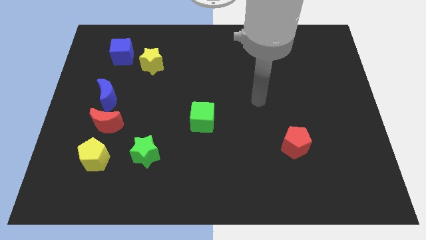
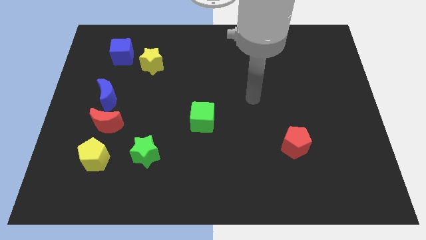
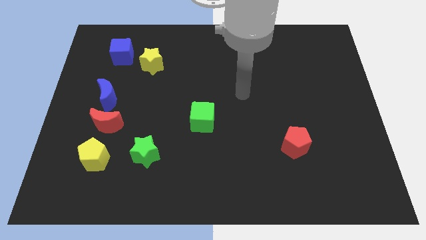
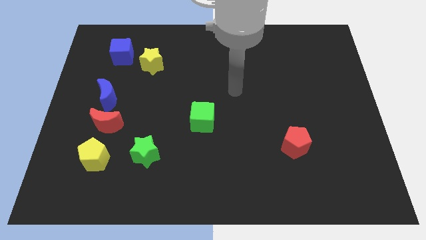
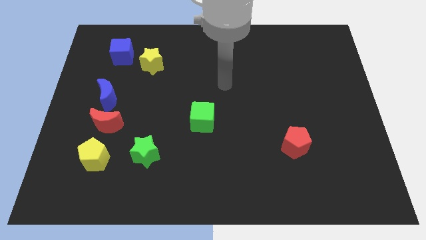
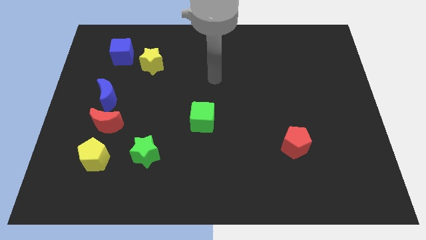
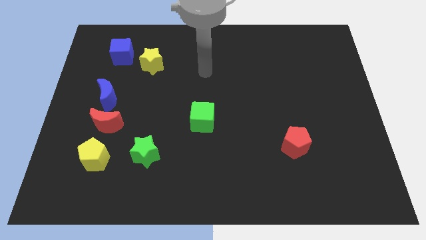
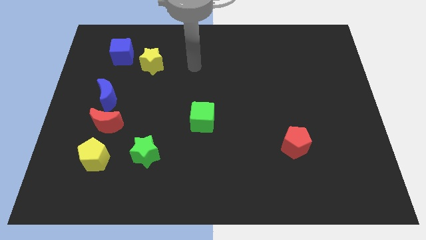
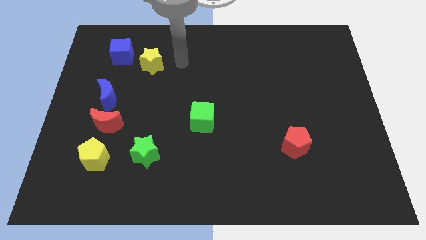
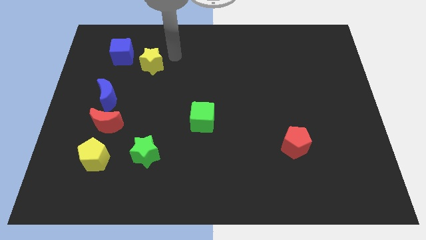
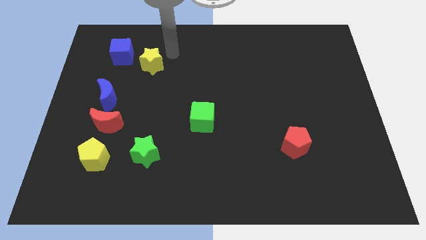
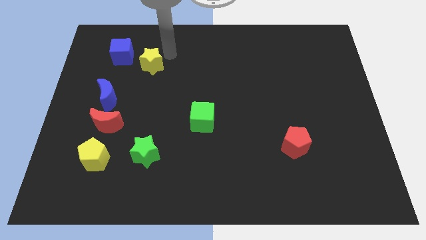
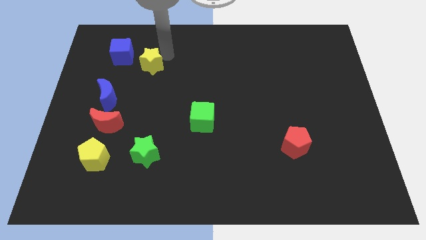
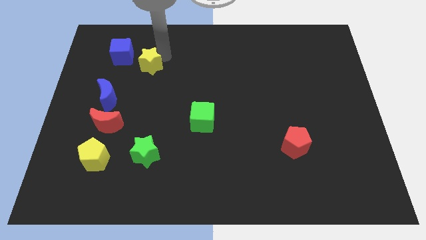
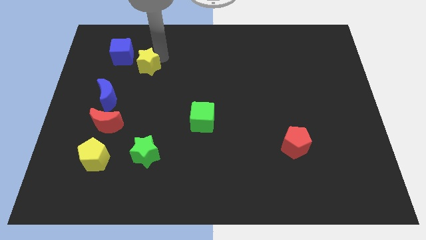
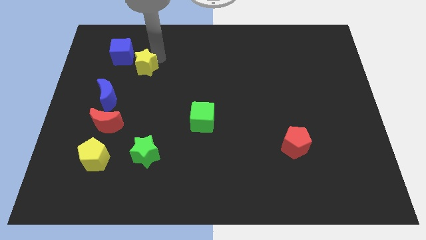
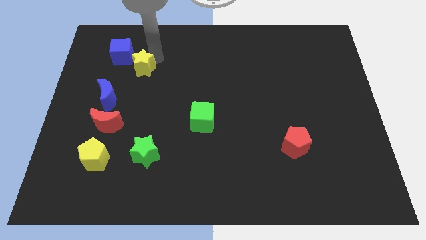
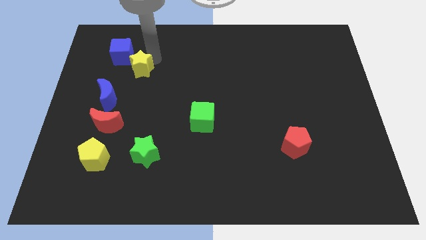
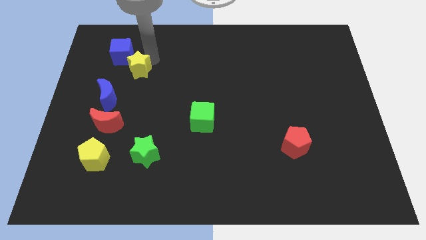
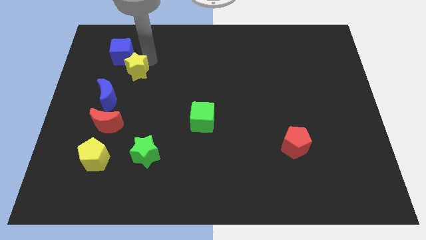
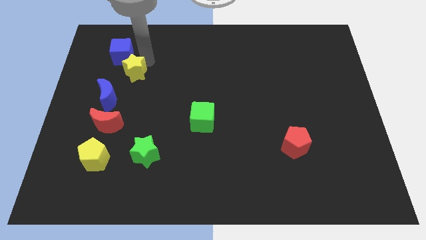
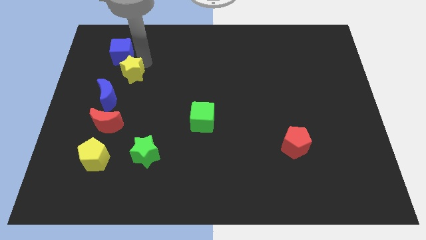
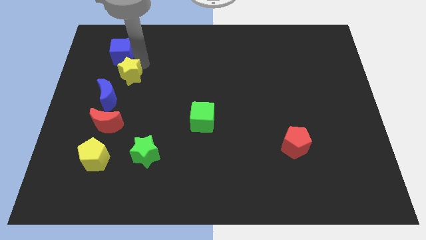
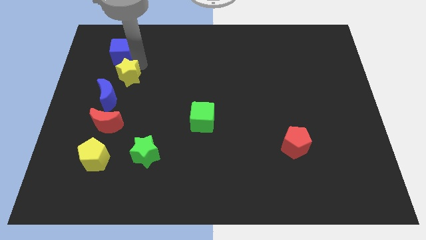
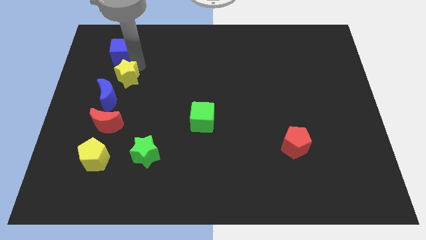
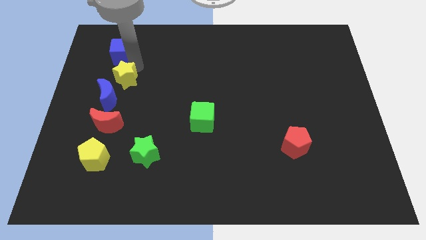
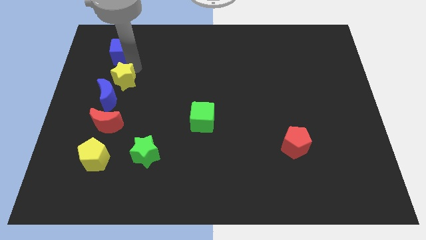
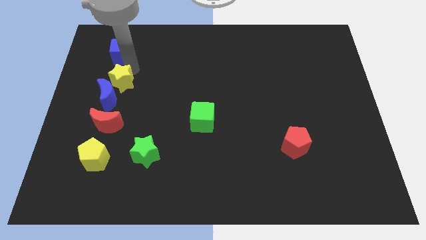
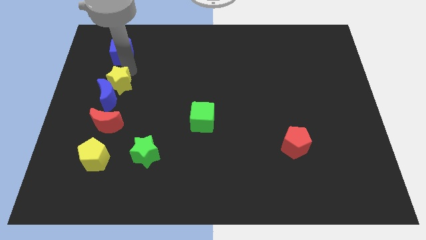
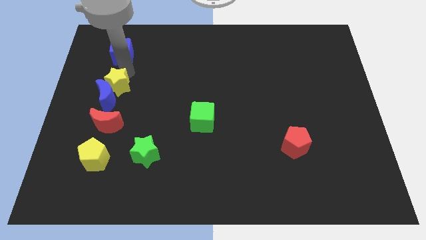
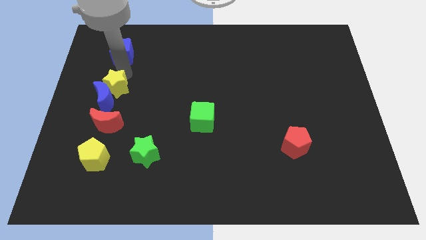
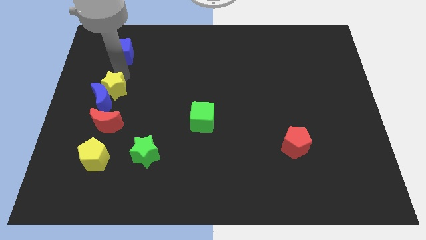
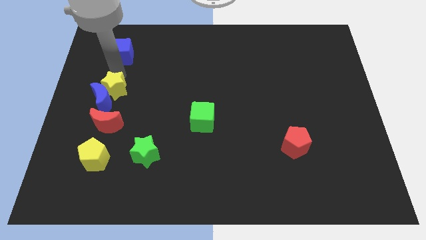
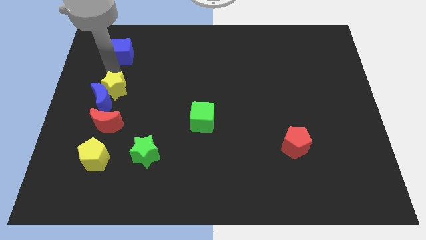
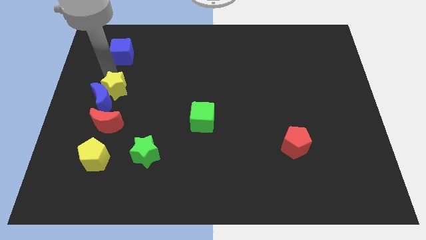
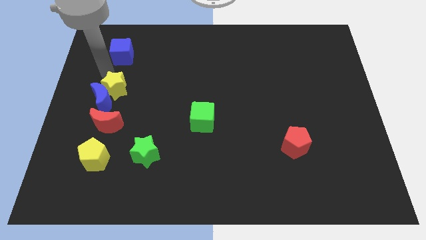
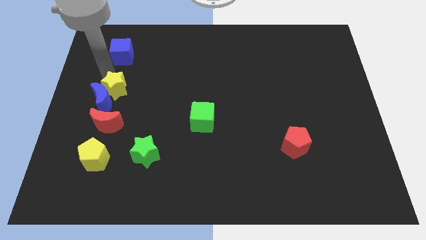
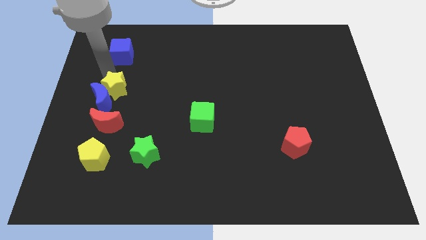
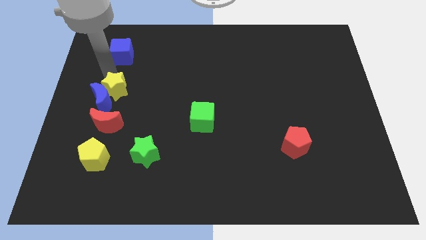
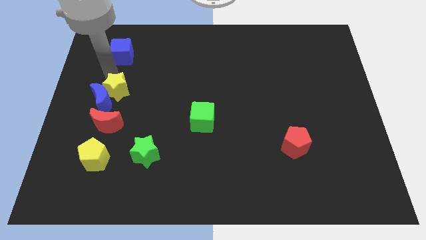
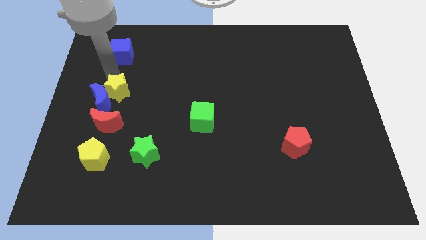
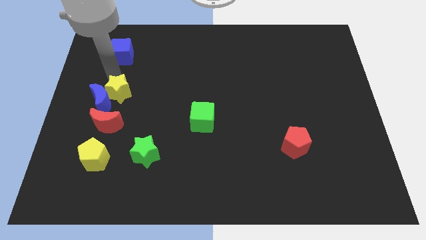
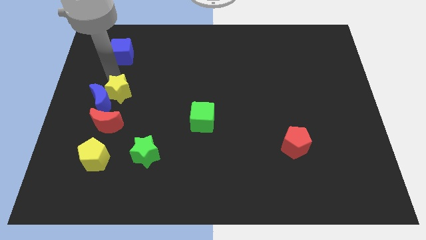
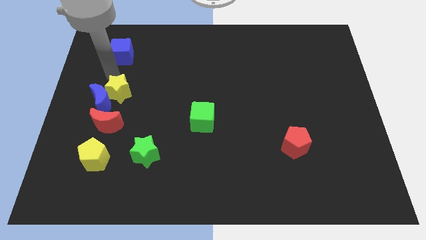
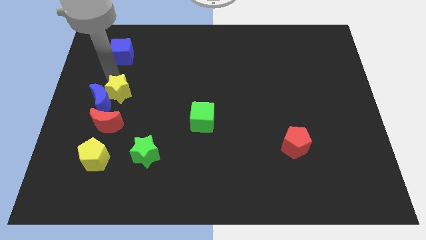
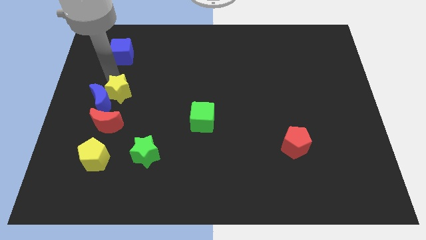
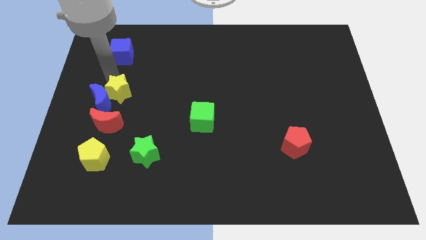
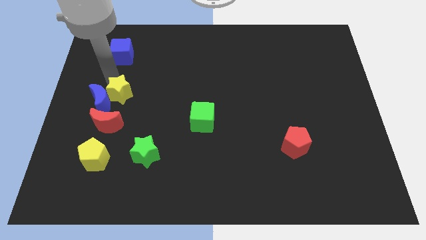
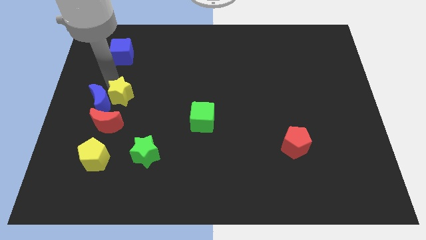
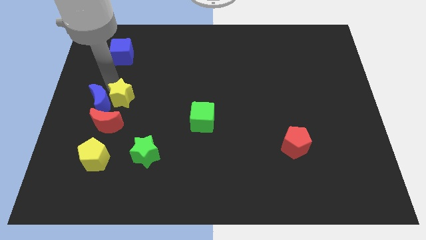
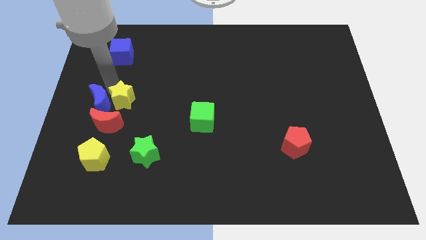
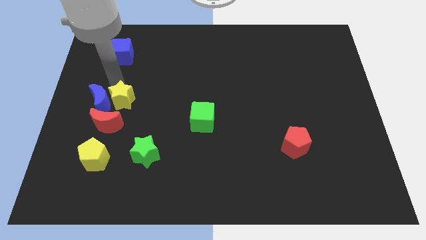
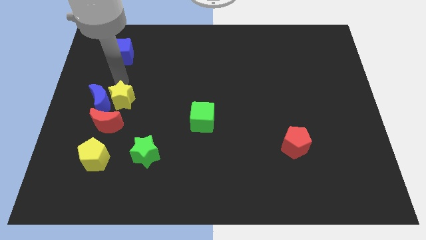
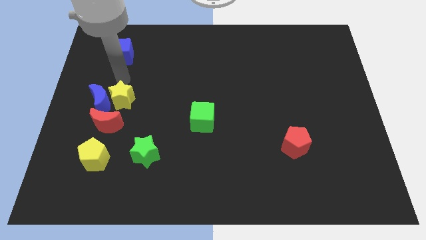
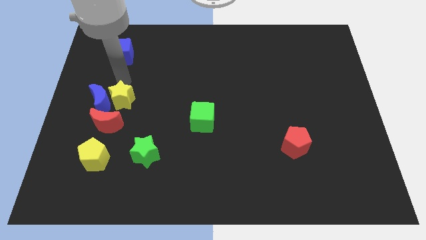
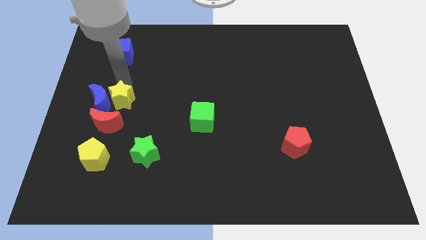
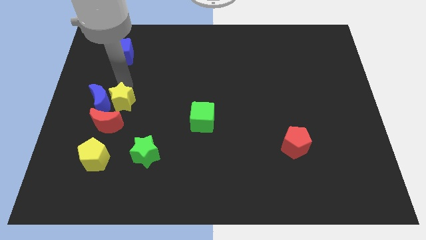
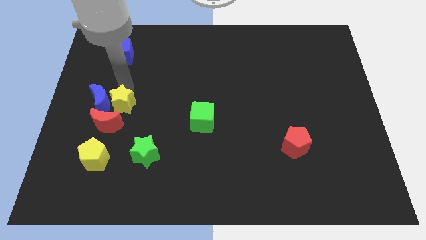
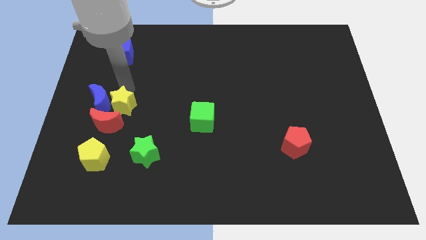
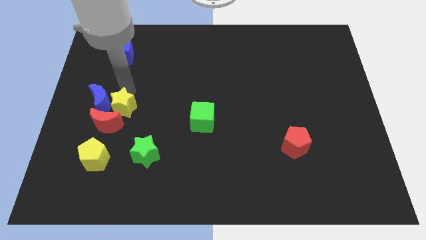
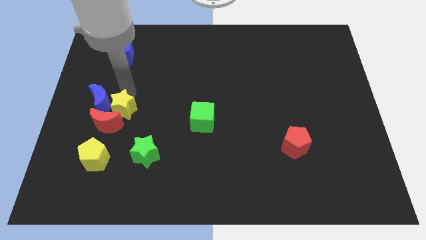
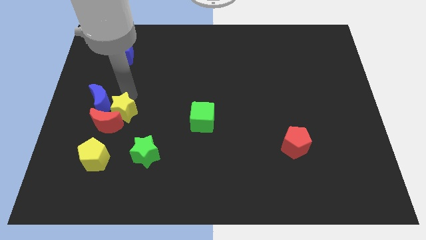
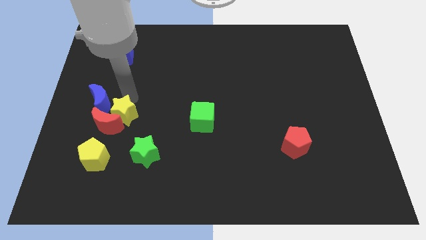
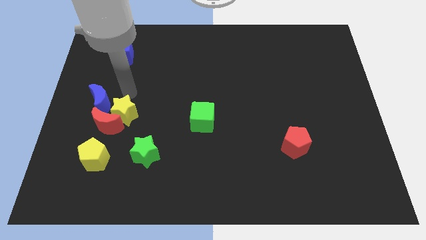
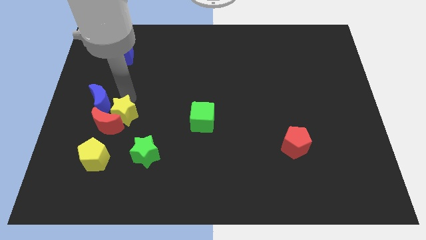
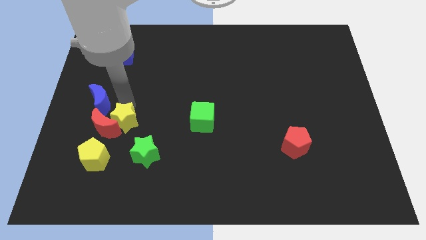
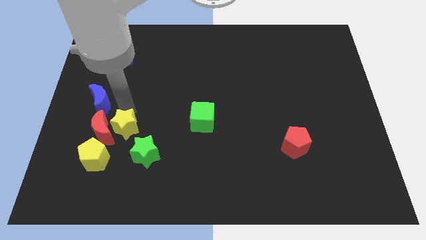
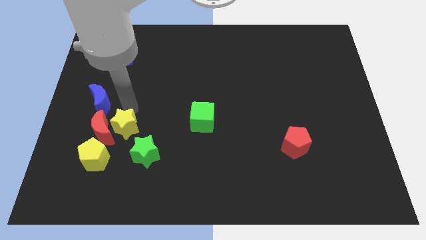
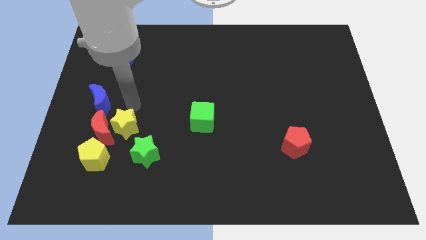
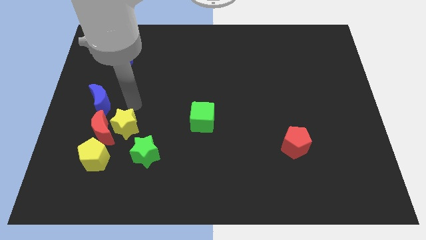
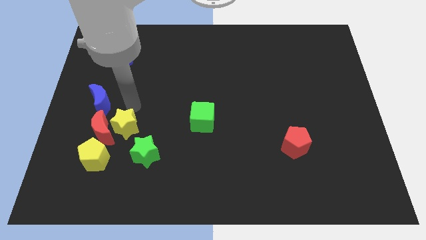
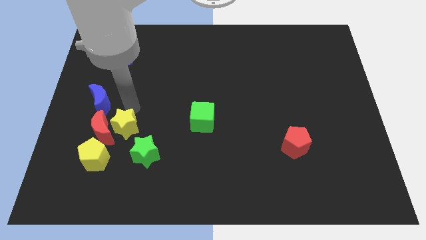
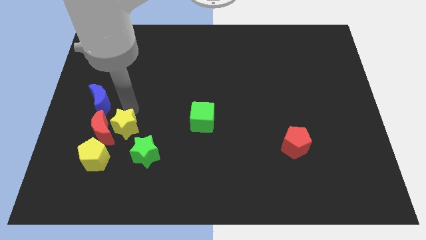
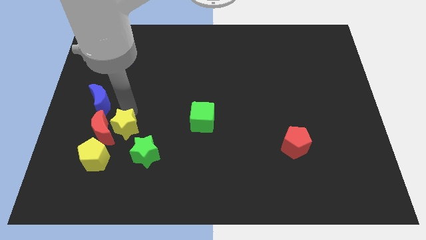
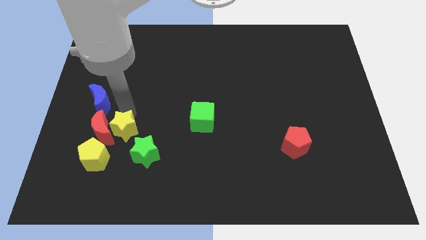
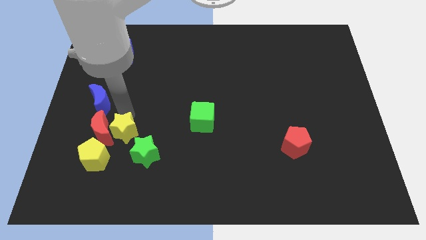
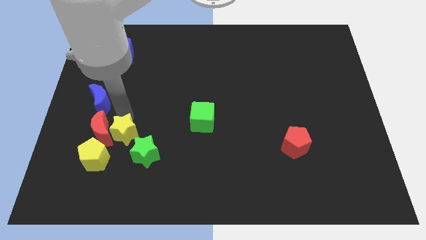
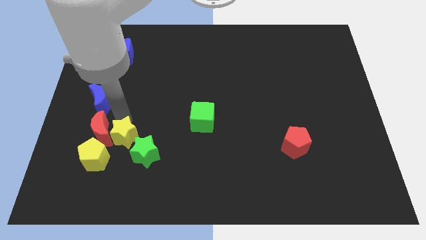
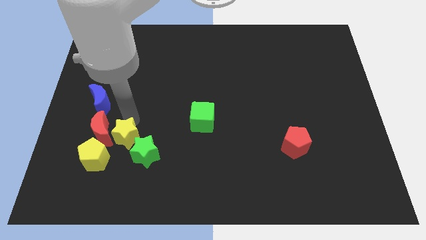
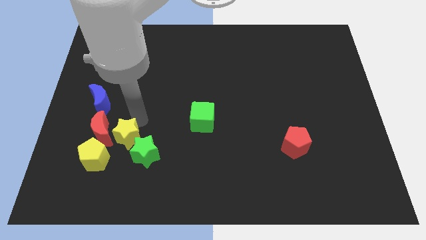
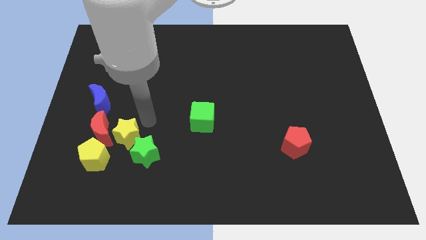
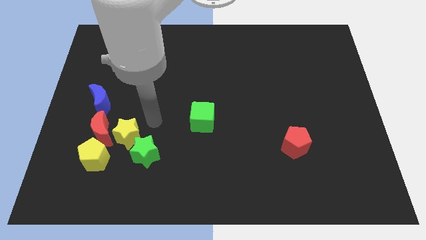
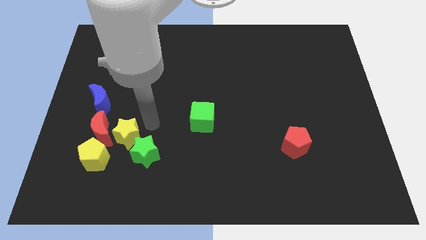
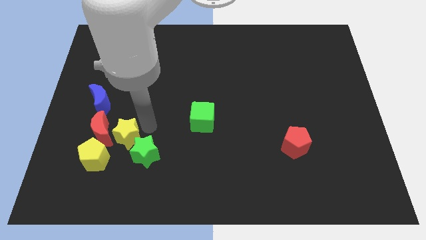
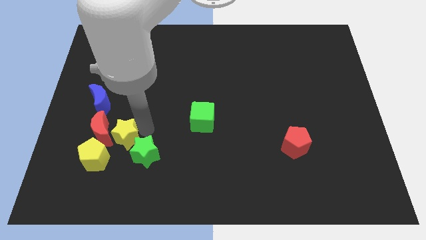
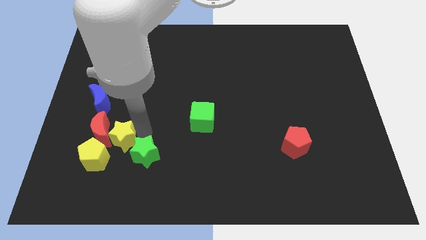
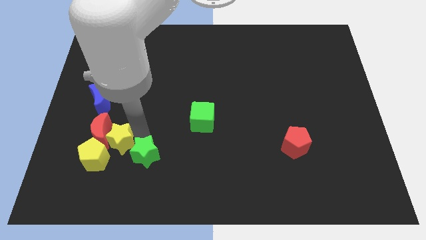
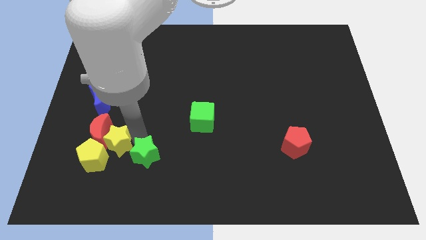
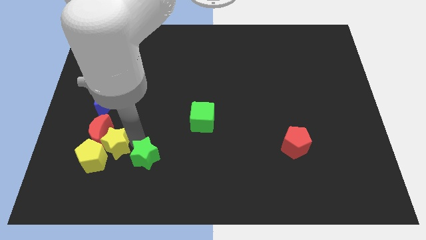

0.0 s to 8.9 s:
put the yellow star to the yellow pentagon
